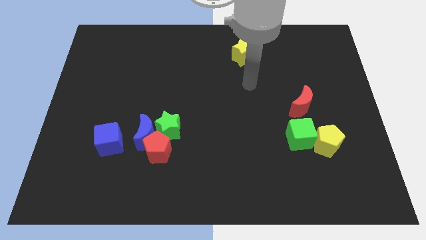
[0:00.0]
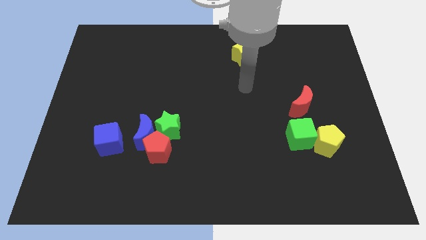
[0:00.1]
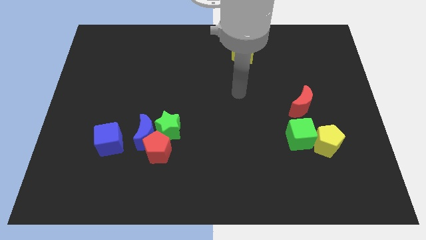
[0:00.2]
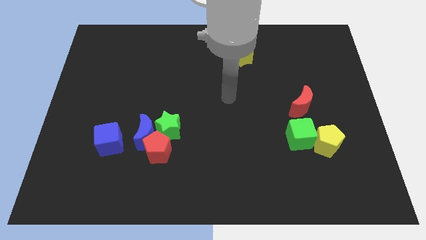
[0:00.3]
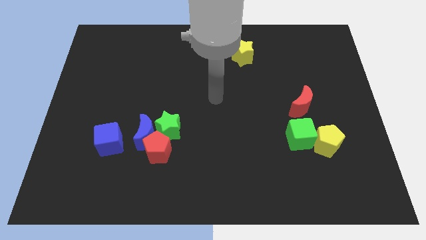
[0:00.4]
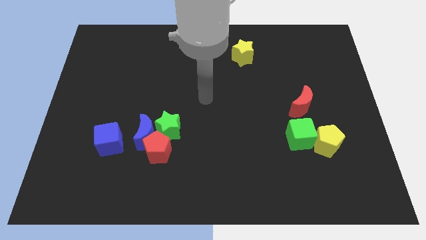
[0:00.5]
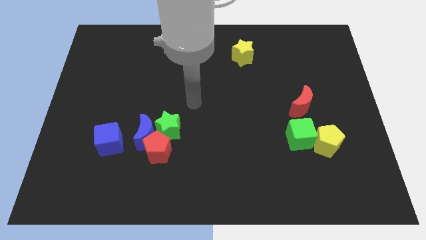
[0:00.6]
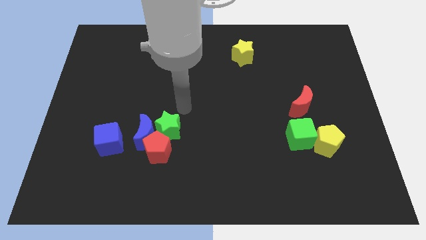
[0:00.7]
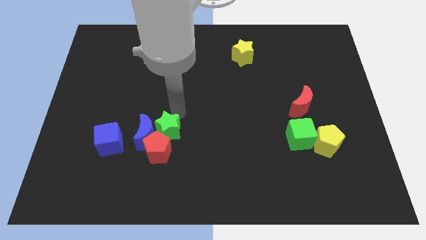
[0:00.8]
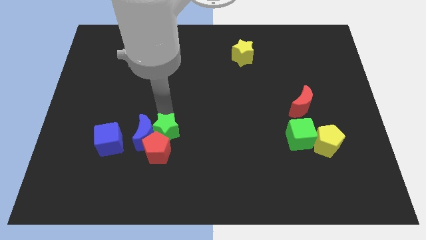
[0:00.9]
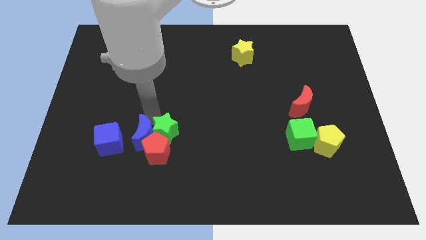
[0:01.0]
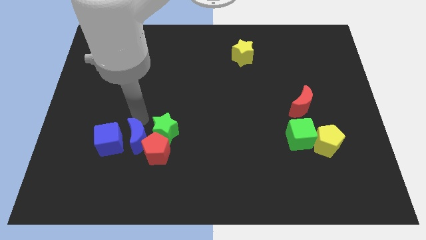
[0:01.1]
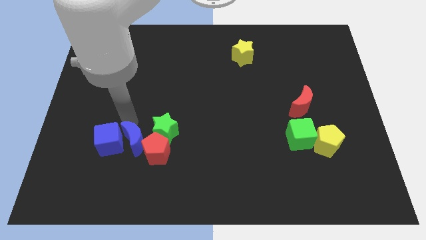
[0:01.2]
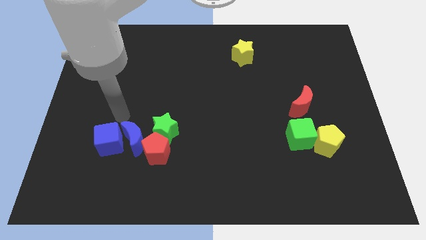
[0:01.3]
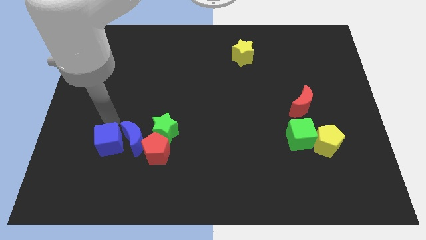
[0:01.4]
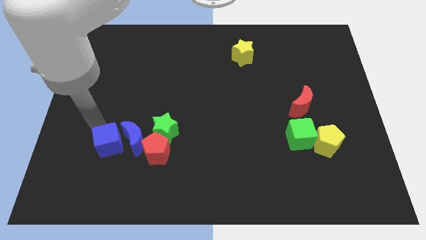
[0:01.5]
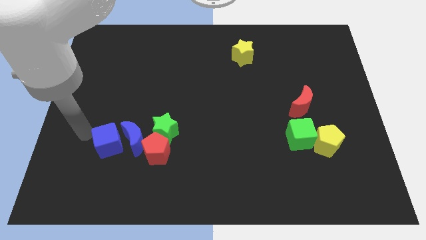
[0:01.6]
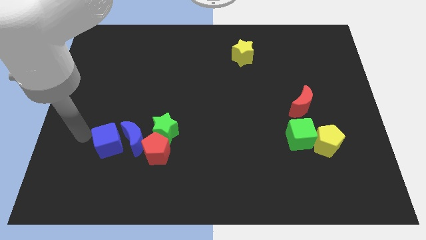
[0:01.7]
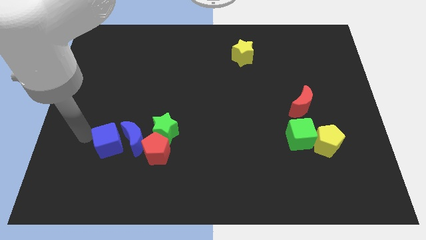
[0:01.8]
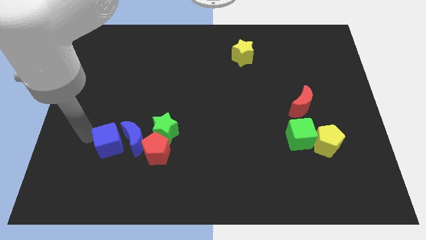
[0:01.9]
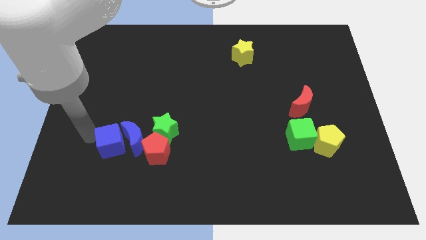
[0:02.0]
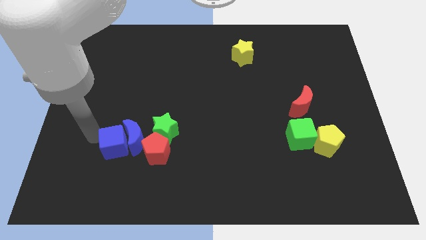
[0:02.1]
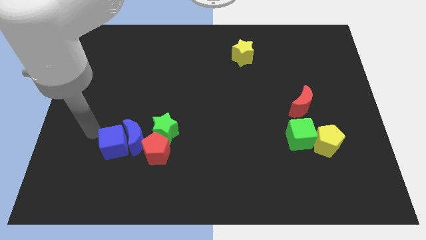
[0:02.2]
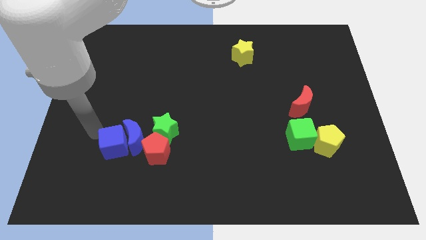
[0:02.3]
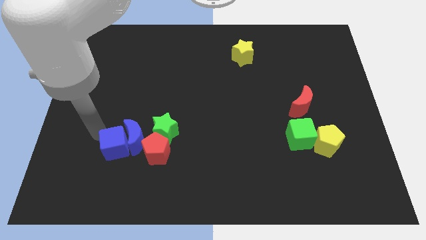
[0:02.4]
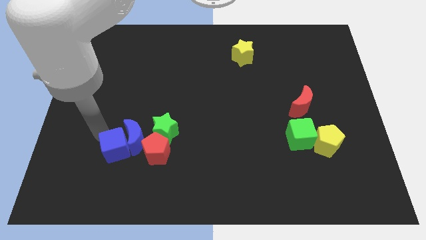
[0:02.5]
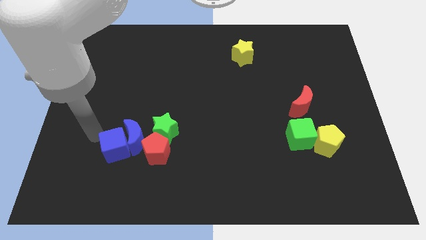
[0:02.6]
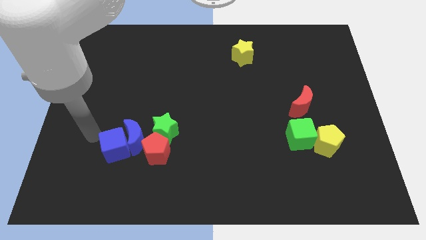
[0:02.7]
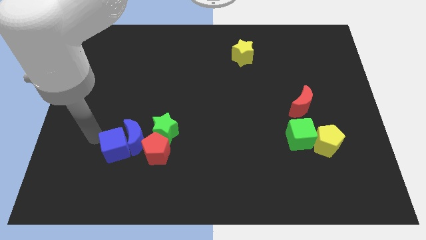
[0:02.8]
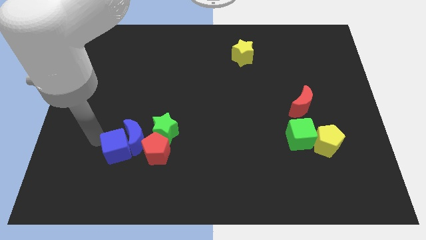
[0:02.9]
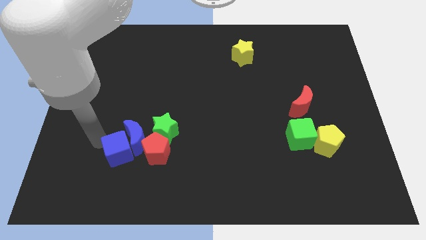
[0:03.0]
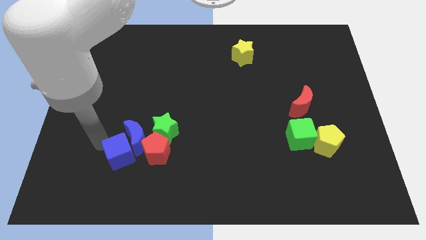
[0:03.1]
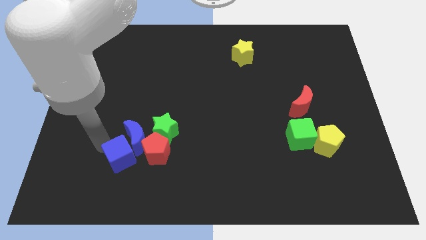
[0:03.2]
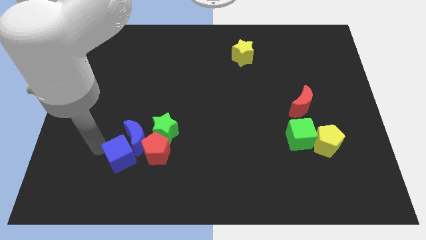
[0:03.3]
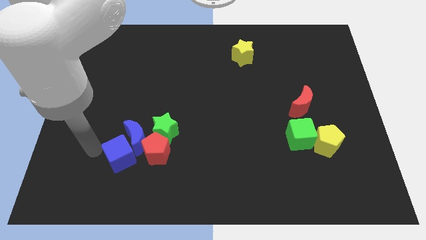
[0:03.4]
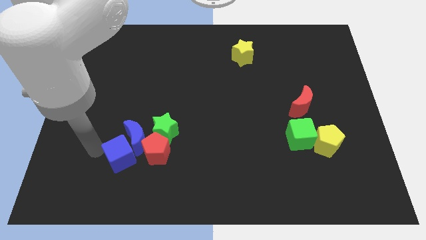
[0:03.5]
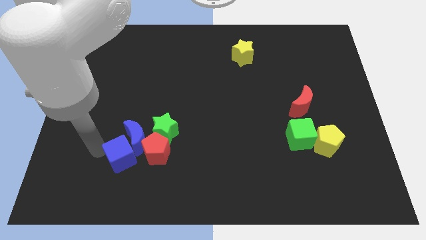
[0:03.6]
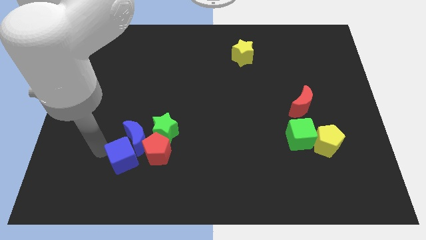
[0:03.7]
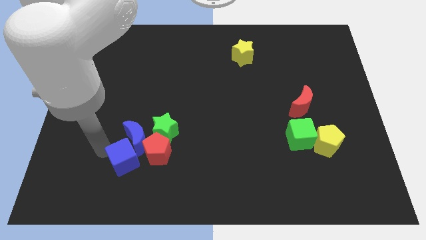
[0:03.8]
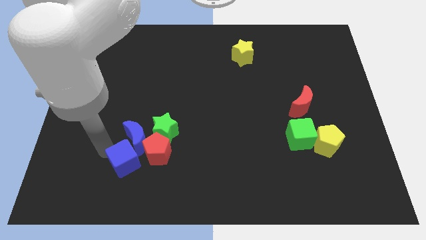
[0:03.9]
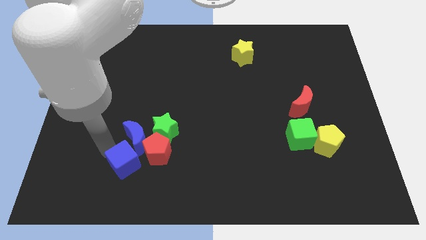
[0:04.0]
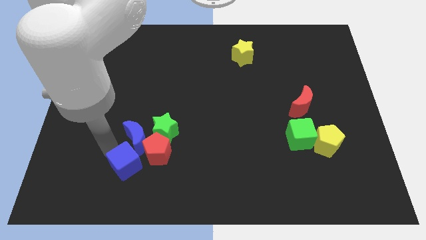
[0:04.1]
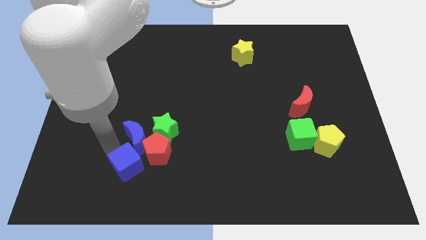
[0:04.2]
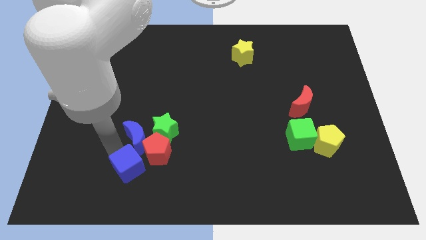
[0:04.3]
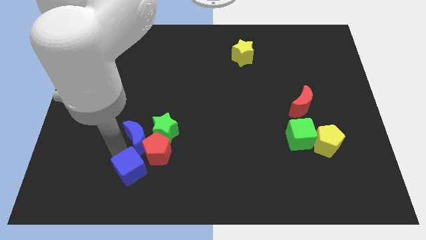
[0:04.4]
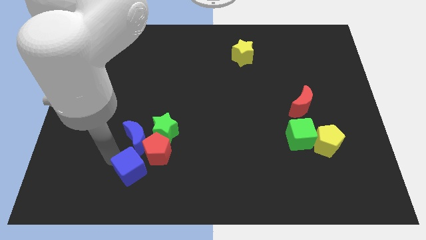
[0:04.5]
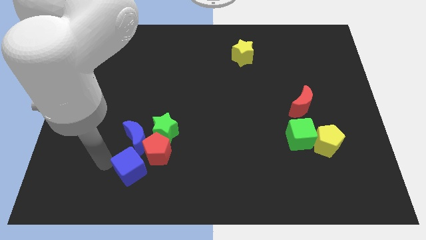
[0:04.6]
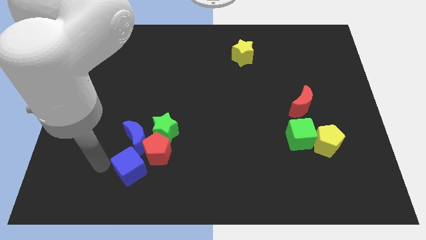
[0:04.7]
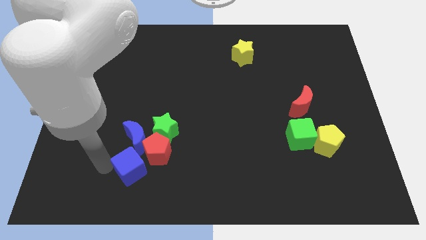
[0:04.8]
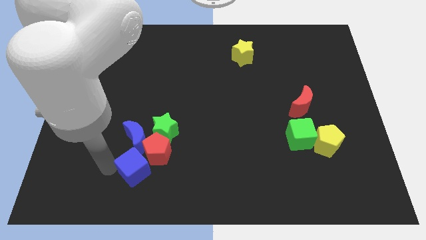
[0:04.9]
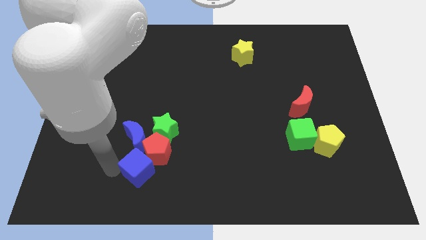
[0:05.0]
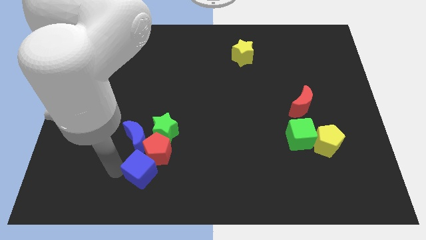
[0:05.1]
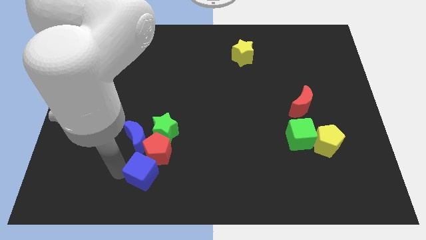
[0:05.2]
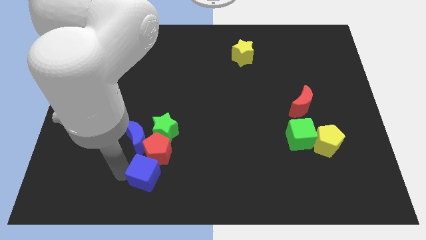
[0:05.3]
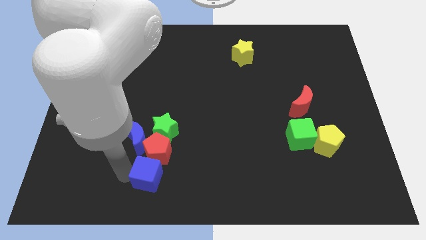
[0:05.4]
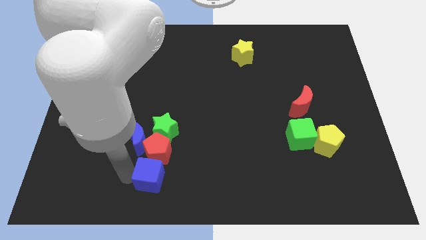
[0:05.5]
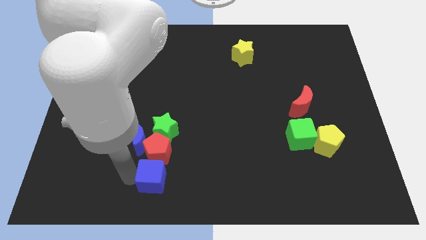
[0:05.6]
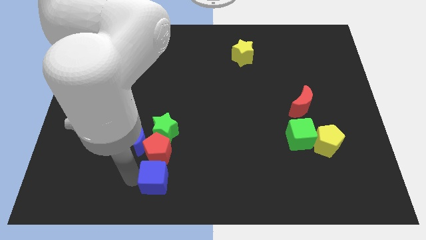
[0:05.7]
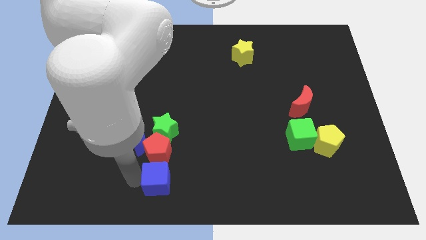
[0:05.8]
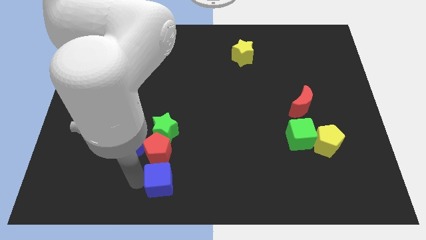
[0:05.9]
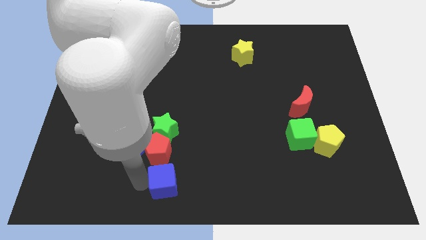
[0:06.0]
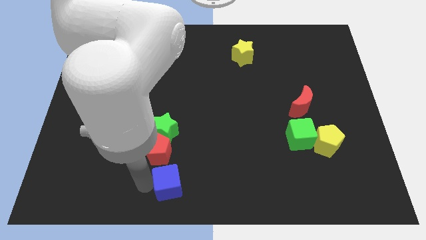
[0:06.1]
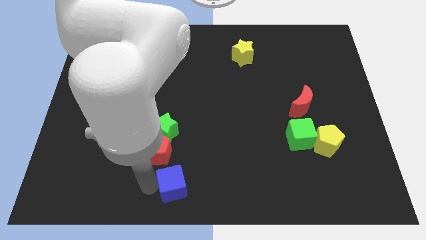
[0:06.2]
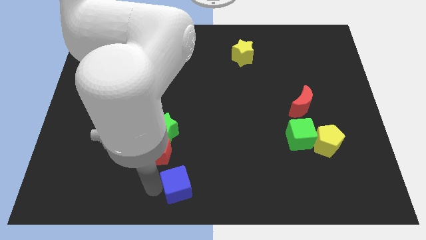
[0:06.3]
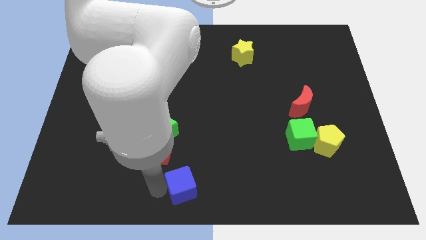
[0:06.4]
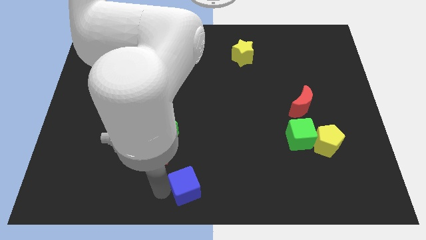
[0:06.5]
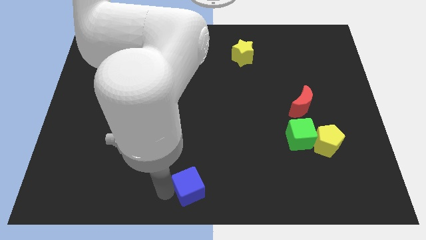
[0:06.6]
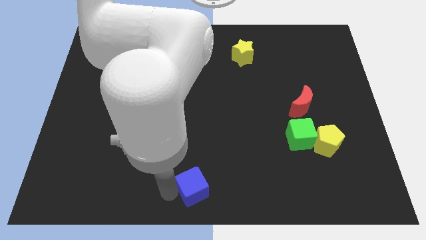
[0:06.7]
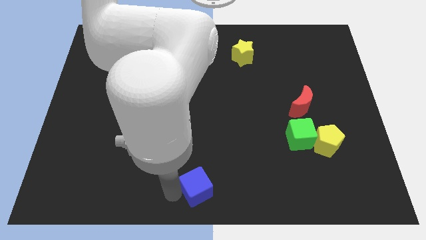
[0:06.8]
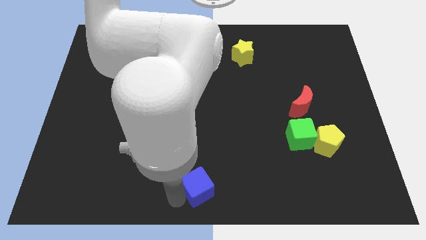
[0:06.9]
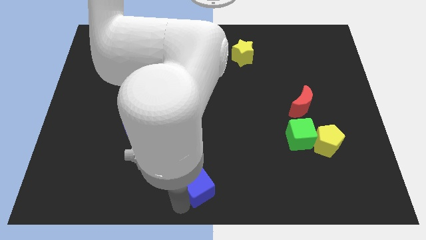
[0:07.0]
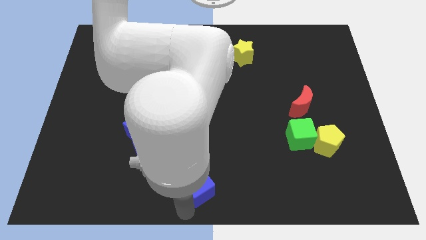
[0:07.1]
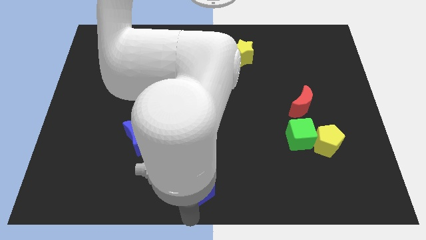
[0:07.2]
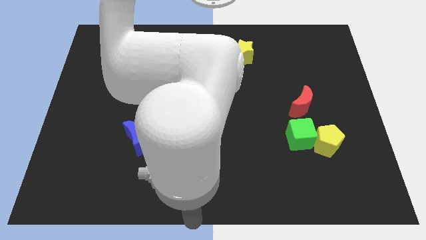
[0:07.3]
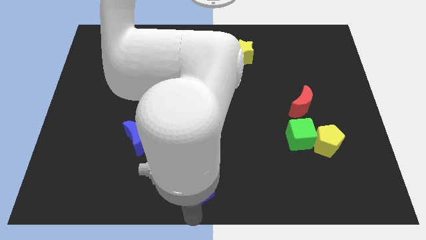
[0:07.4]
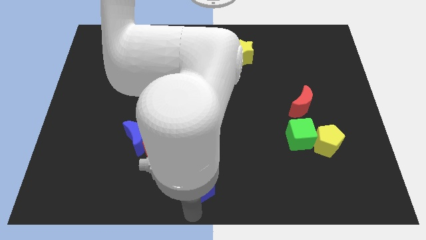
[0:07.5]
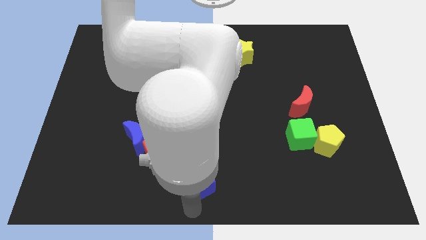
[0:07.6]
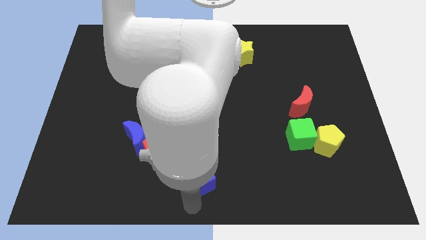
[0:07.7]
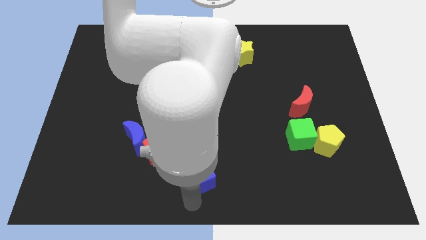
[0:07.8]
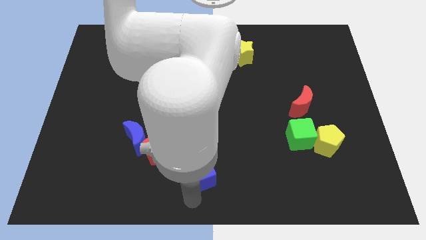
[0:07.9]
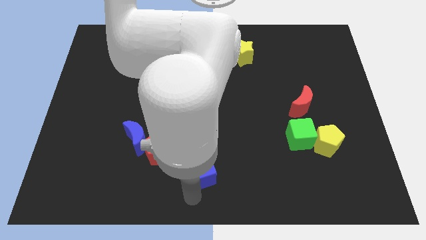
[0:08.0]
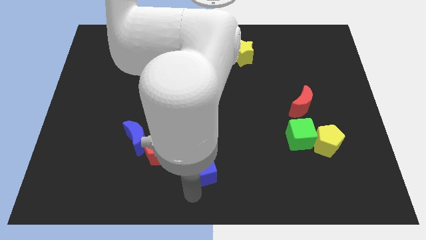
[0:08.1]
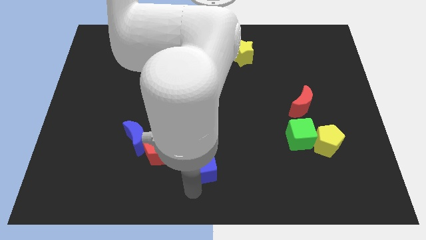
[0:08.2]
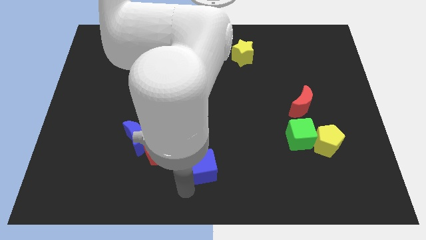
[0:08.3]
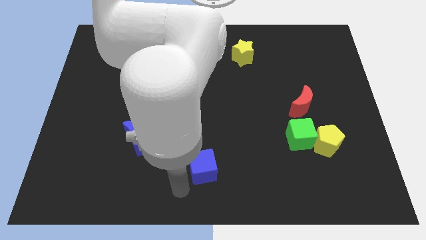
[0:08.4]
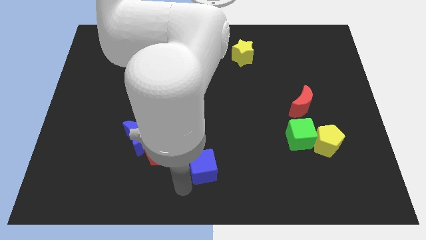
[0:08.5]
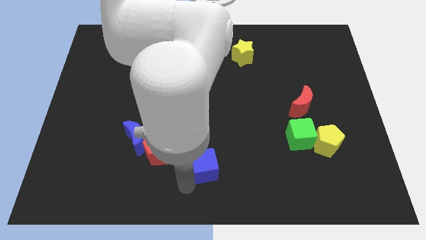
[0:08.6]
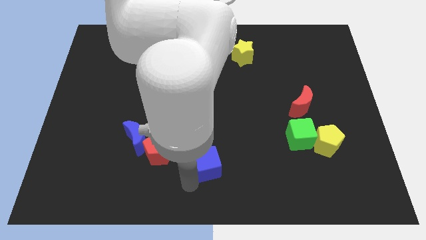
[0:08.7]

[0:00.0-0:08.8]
slide the blue cube right
